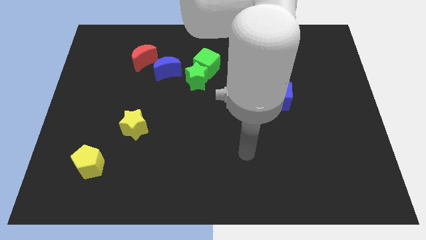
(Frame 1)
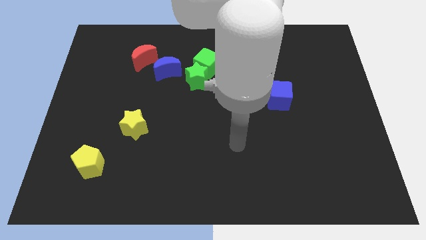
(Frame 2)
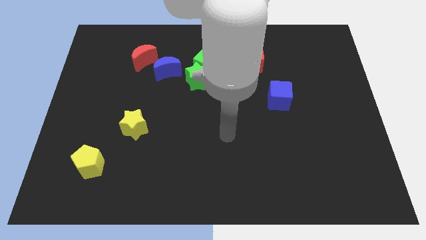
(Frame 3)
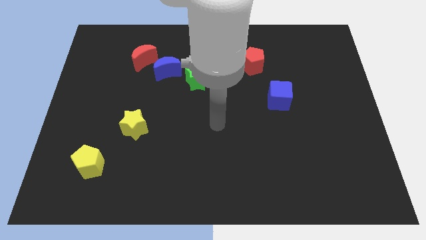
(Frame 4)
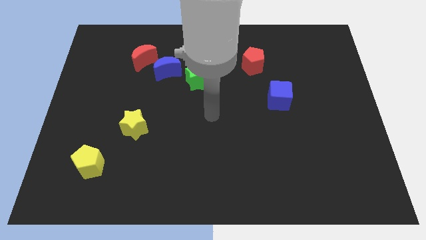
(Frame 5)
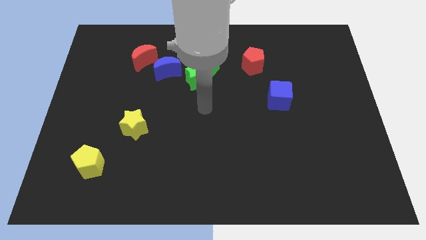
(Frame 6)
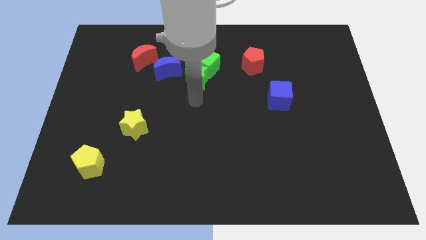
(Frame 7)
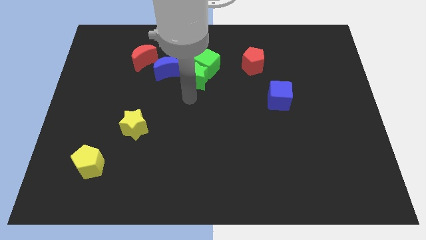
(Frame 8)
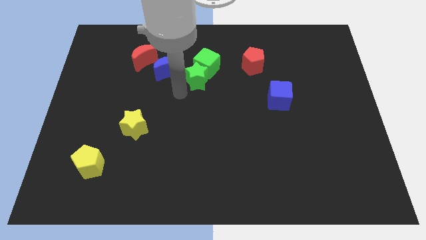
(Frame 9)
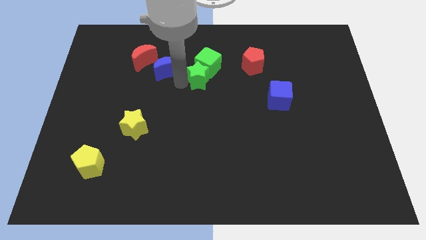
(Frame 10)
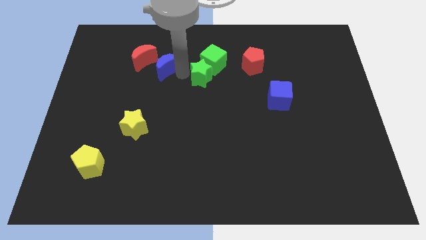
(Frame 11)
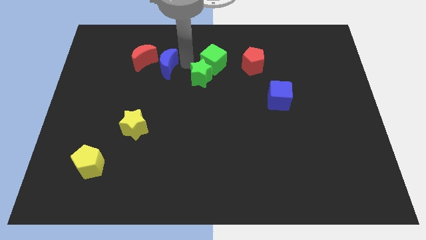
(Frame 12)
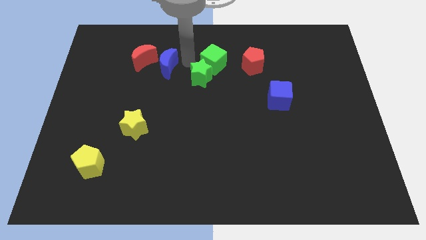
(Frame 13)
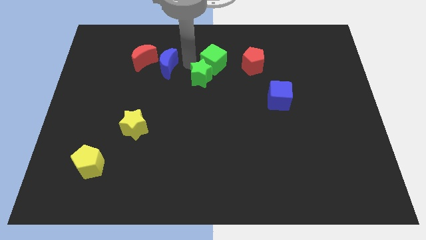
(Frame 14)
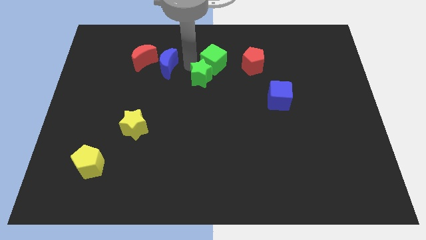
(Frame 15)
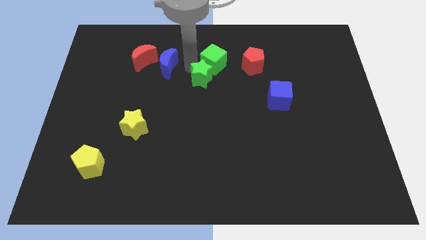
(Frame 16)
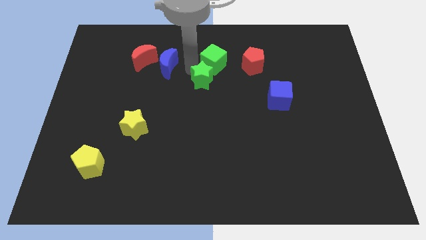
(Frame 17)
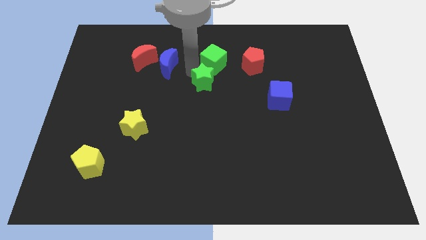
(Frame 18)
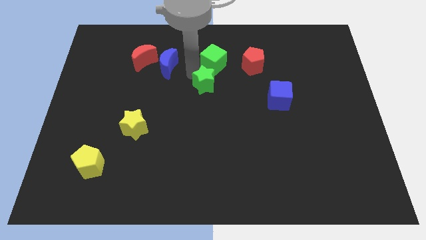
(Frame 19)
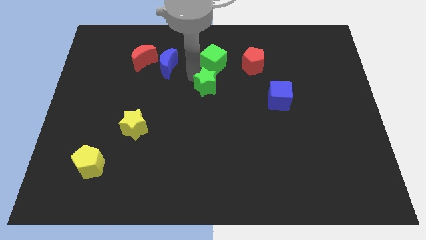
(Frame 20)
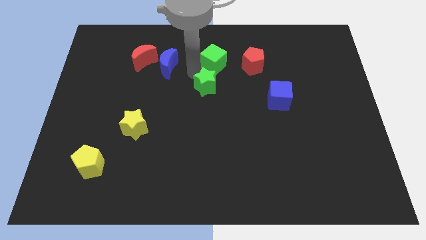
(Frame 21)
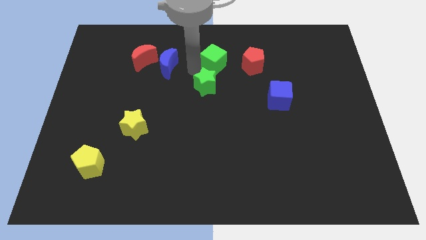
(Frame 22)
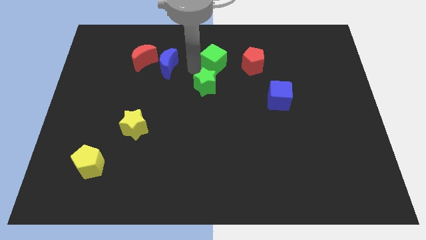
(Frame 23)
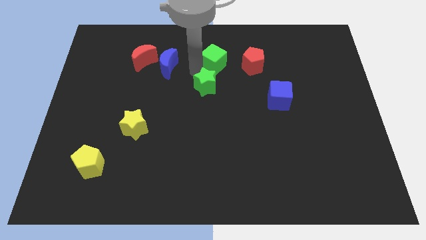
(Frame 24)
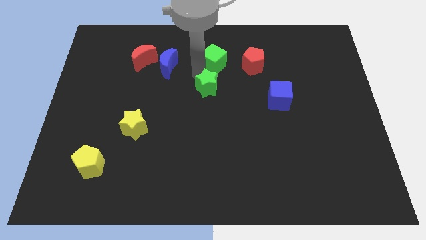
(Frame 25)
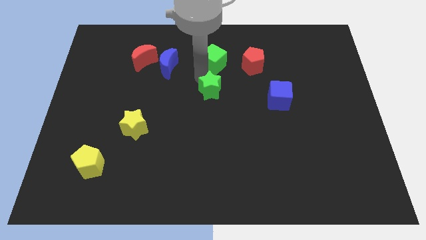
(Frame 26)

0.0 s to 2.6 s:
pull the green star apart from the green cube and blue moon

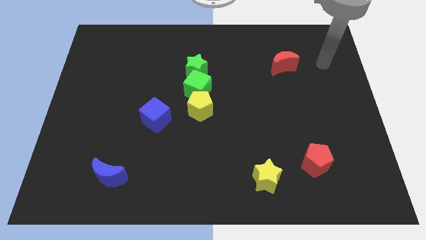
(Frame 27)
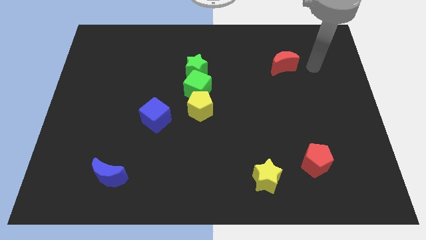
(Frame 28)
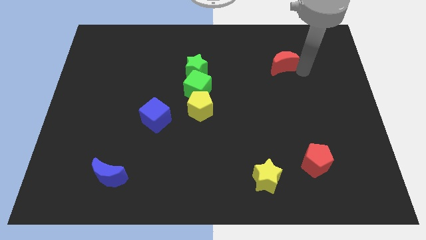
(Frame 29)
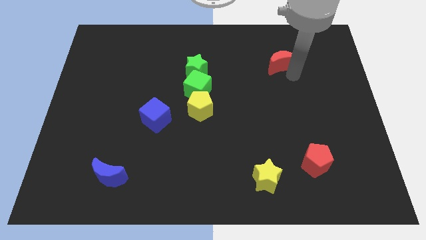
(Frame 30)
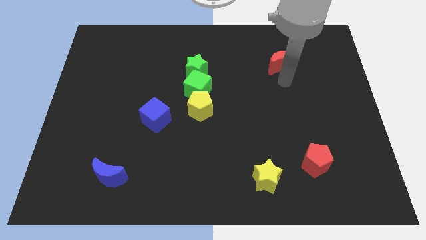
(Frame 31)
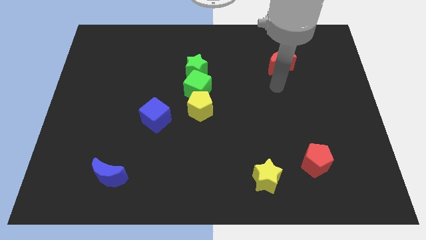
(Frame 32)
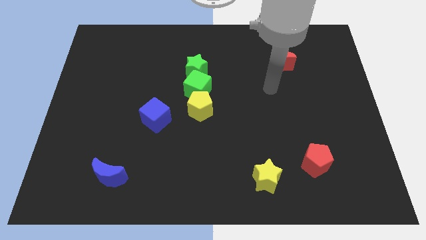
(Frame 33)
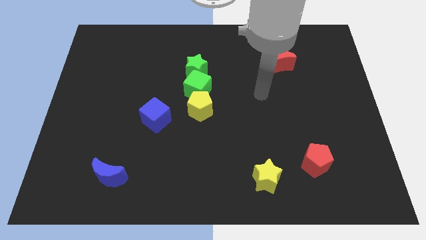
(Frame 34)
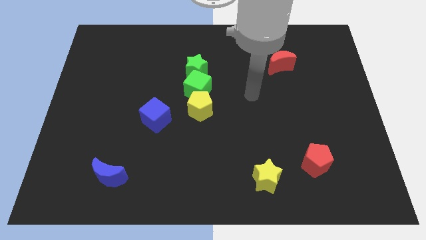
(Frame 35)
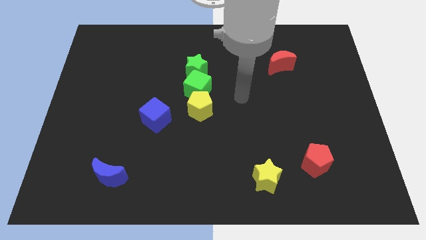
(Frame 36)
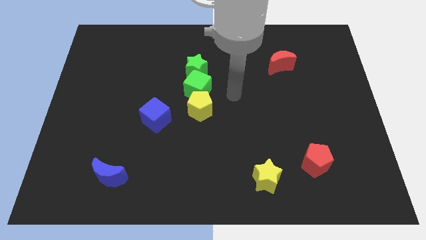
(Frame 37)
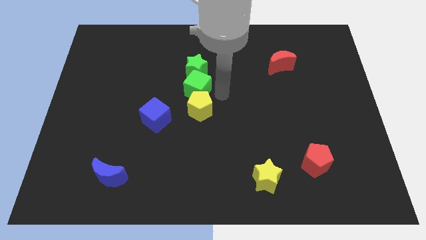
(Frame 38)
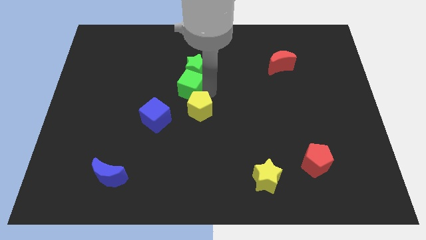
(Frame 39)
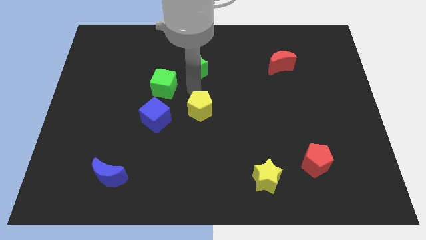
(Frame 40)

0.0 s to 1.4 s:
pull the yellow pentagon apart from the green cube

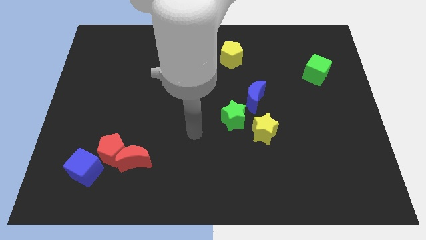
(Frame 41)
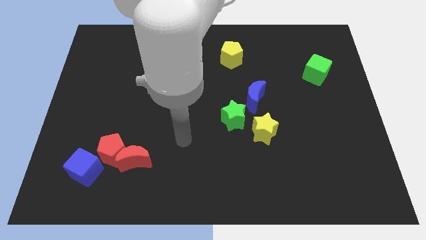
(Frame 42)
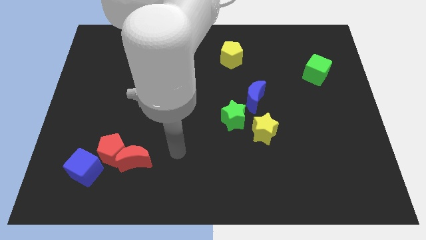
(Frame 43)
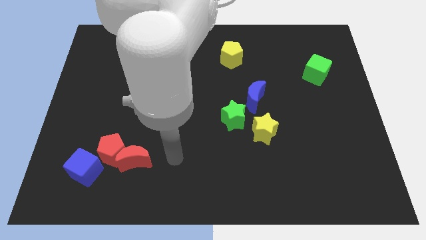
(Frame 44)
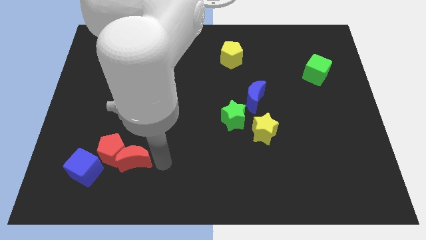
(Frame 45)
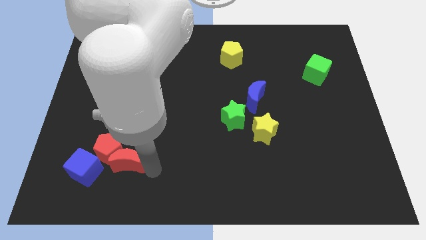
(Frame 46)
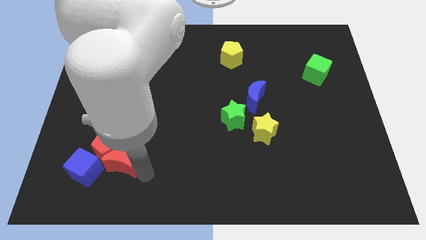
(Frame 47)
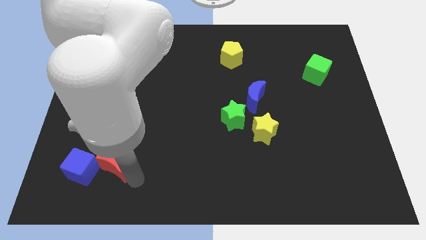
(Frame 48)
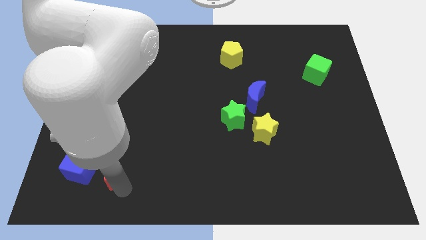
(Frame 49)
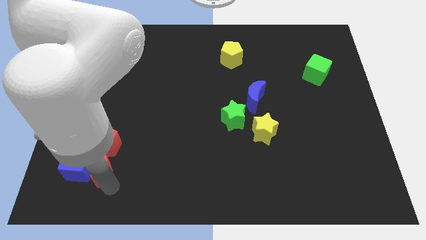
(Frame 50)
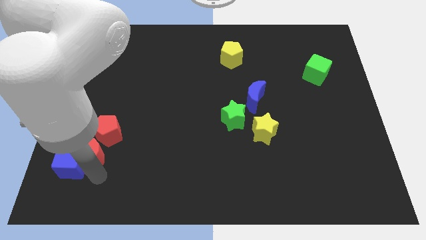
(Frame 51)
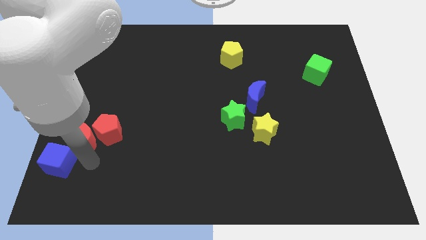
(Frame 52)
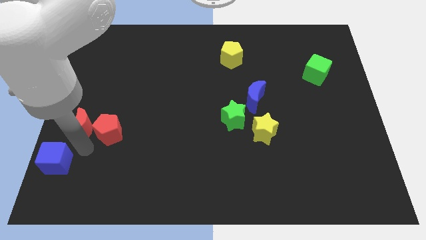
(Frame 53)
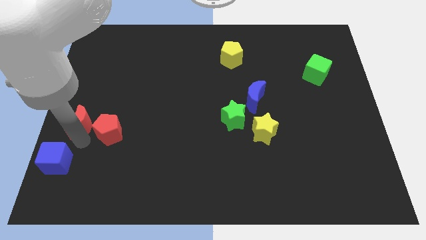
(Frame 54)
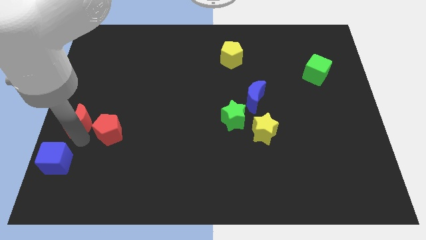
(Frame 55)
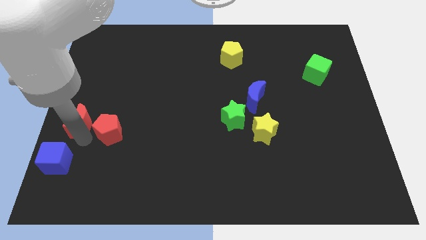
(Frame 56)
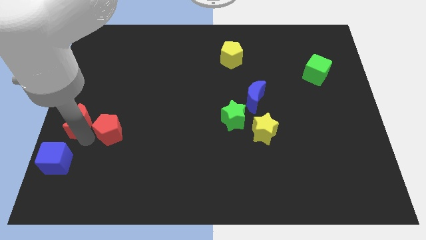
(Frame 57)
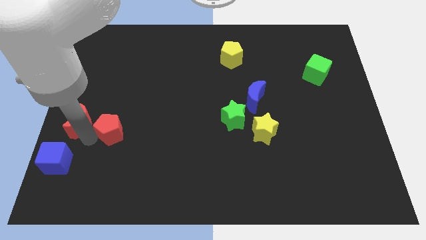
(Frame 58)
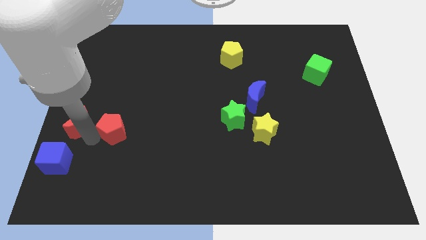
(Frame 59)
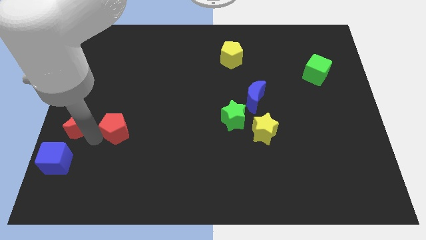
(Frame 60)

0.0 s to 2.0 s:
separate the red pentagon from the red moon and blue cube

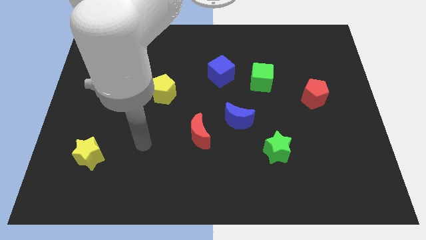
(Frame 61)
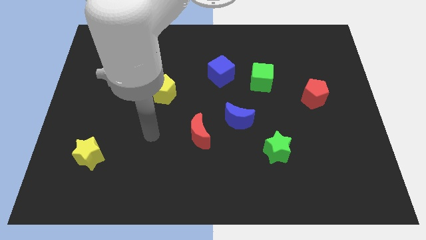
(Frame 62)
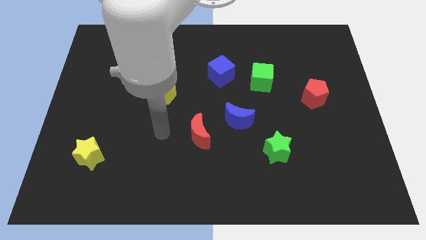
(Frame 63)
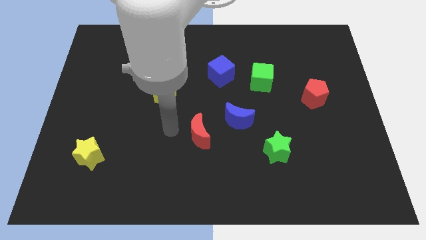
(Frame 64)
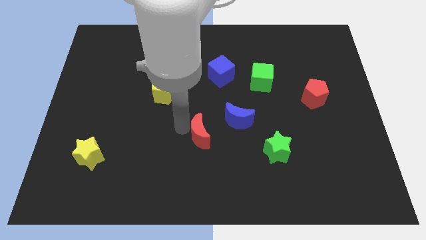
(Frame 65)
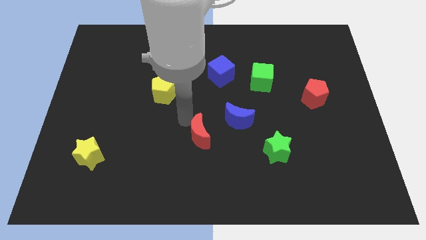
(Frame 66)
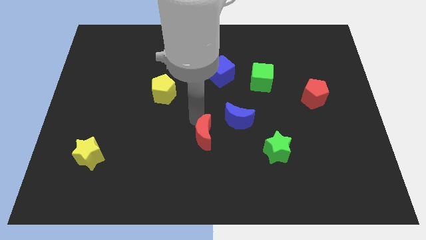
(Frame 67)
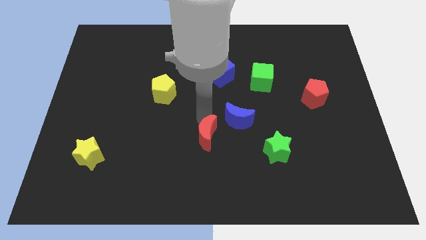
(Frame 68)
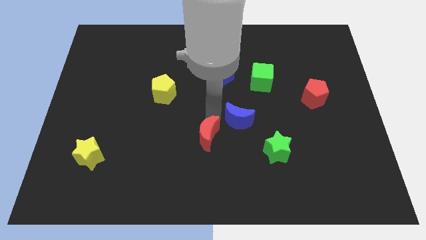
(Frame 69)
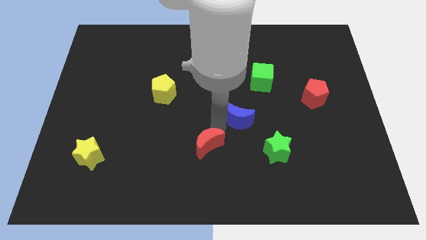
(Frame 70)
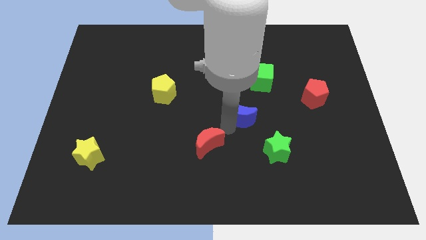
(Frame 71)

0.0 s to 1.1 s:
separate the red moon from the blue moon

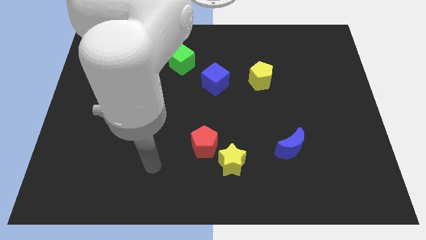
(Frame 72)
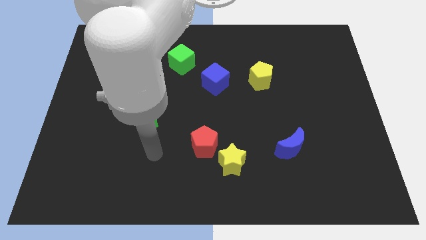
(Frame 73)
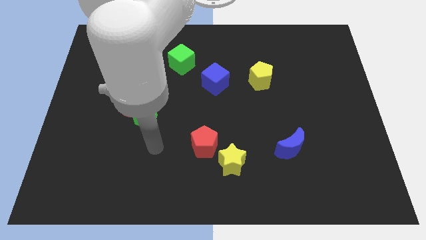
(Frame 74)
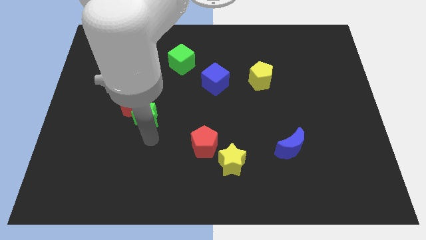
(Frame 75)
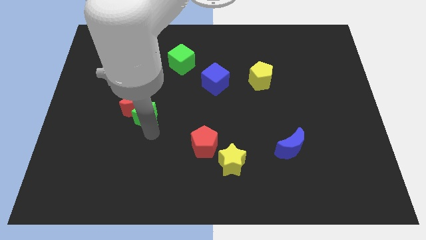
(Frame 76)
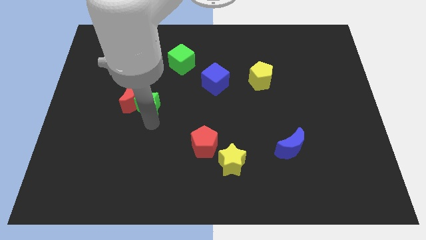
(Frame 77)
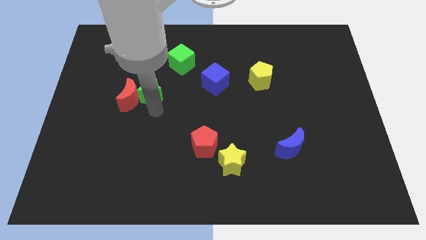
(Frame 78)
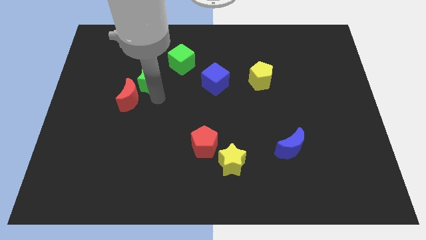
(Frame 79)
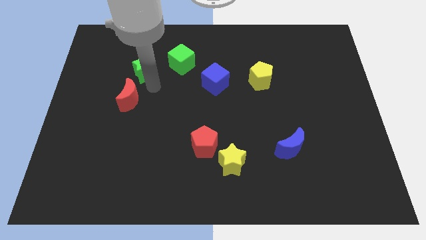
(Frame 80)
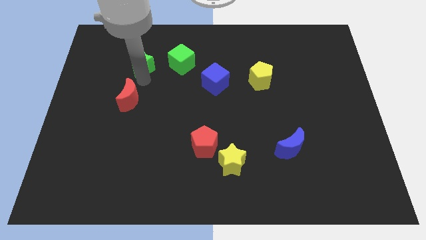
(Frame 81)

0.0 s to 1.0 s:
pull the red moon apart from the green star

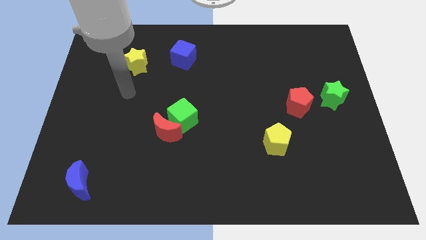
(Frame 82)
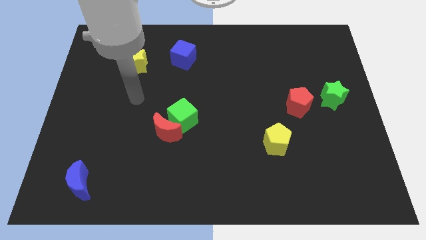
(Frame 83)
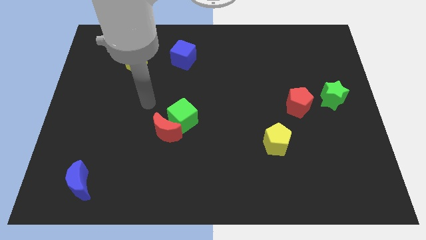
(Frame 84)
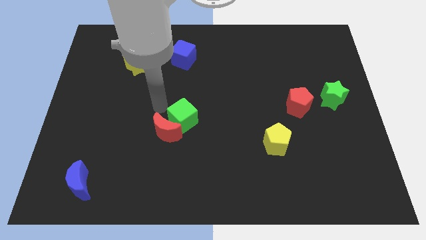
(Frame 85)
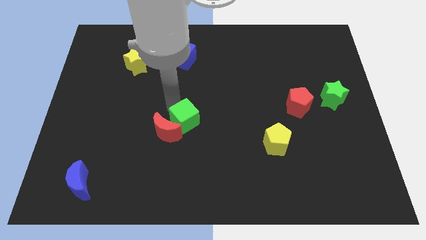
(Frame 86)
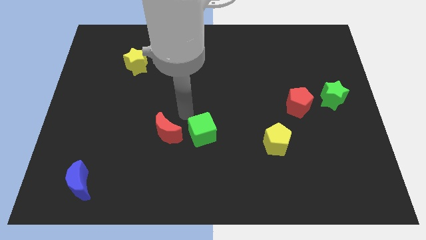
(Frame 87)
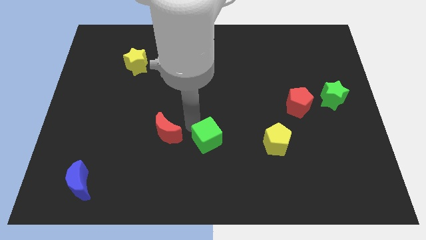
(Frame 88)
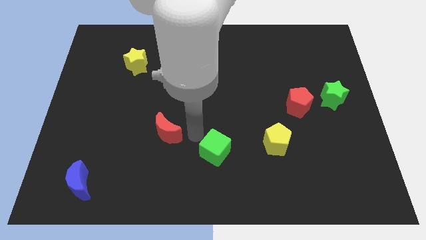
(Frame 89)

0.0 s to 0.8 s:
pull the red moon apart from the green cube

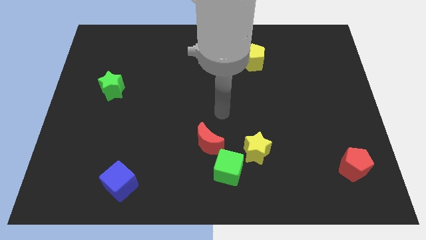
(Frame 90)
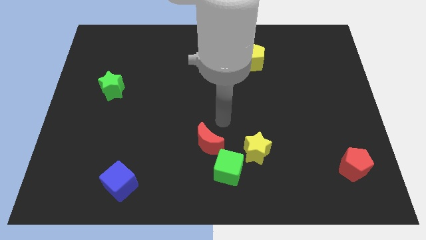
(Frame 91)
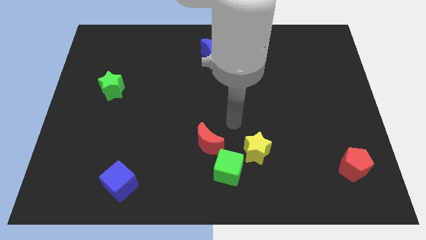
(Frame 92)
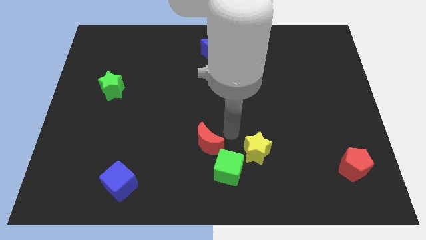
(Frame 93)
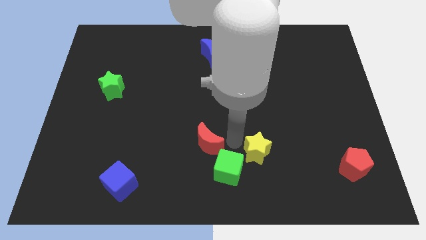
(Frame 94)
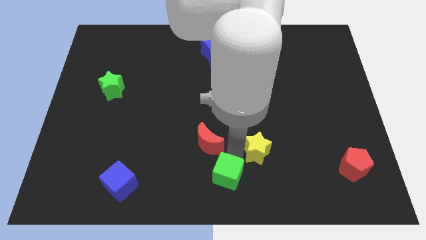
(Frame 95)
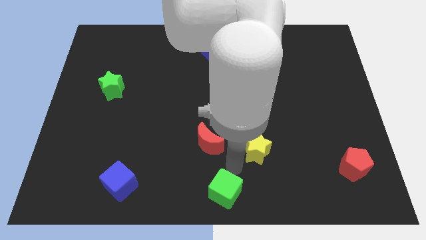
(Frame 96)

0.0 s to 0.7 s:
separate the yellow star from the green cube
